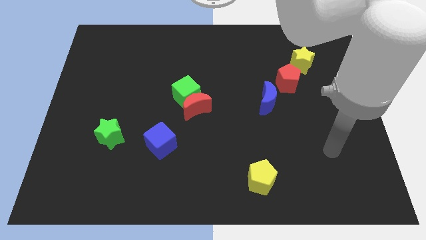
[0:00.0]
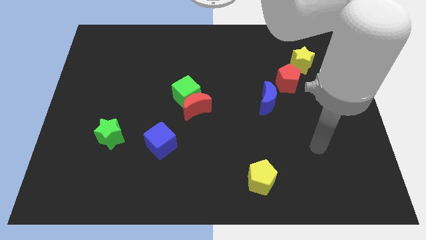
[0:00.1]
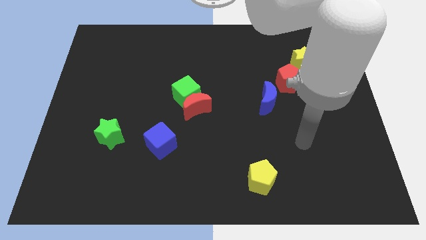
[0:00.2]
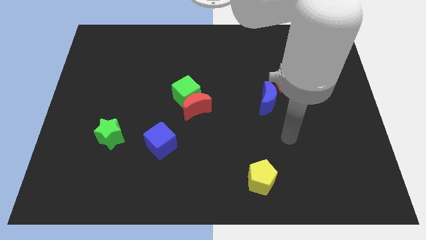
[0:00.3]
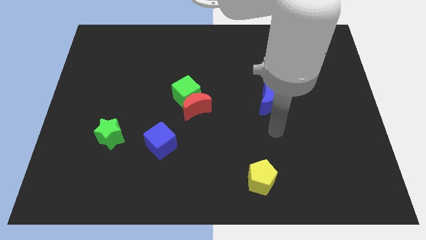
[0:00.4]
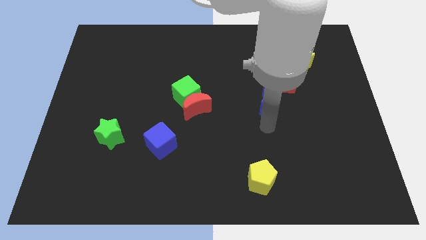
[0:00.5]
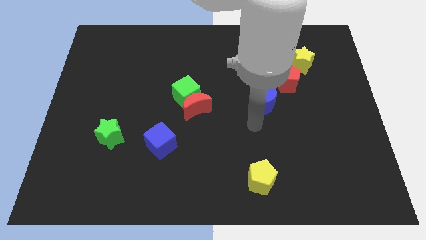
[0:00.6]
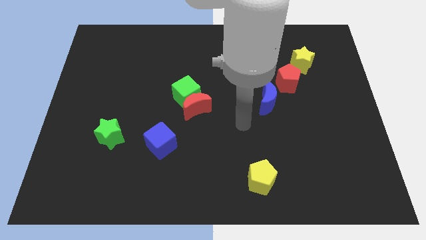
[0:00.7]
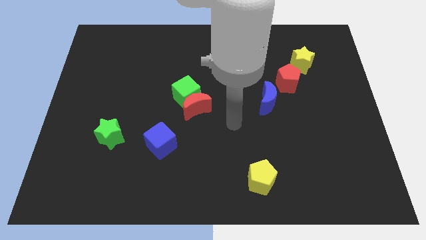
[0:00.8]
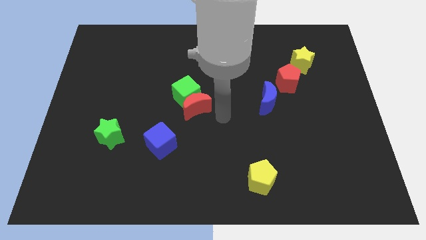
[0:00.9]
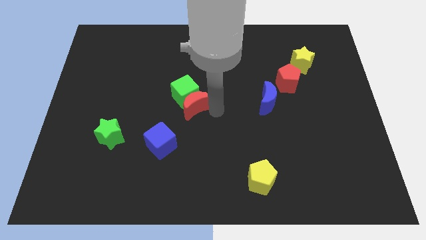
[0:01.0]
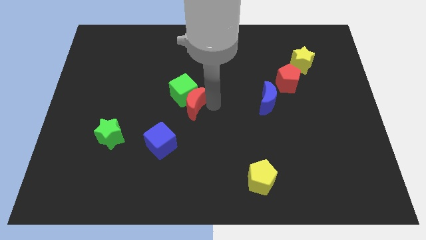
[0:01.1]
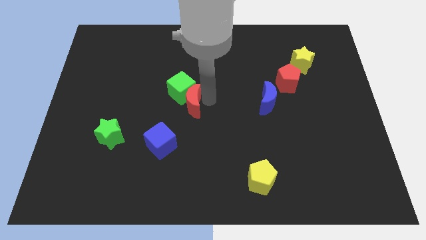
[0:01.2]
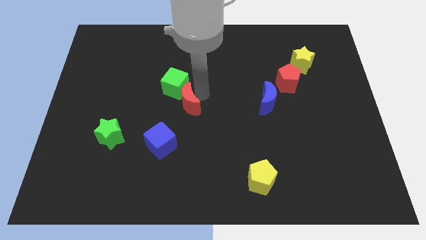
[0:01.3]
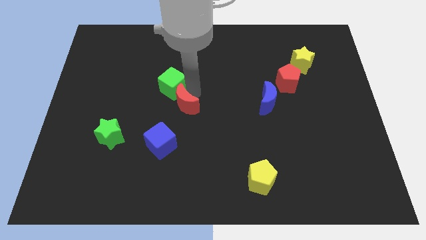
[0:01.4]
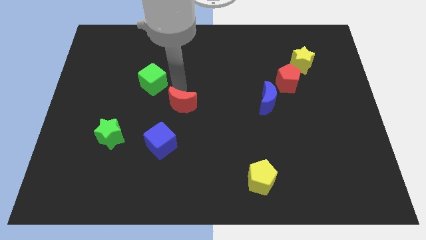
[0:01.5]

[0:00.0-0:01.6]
pull the red moon apart from the green cube

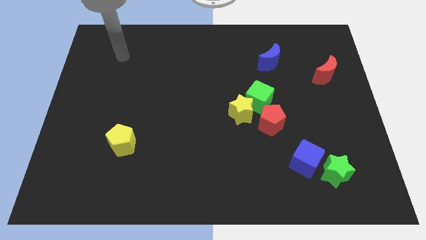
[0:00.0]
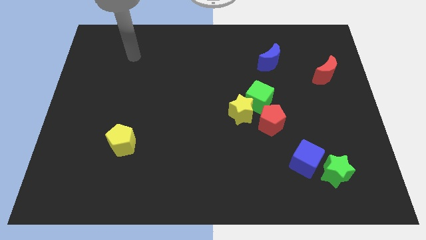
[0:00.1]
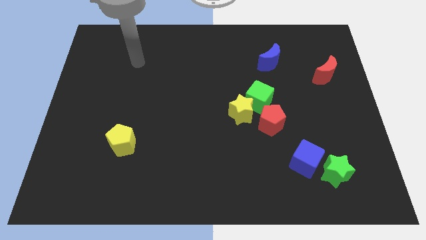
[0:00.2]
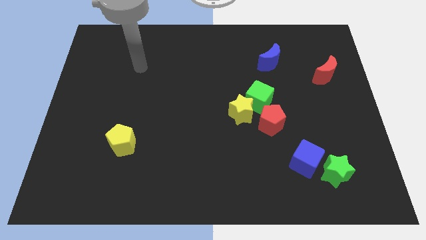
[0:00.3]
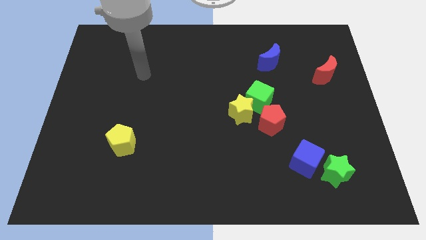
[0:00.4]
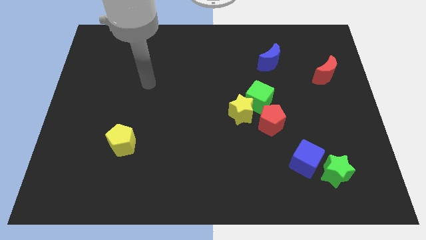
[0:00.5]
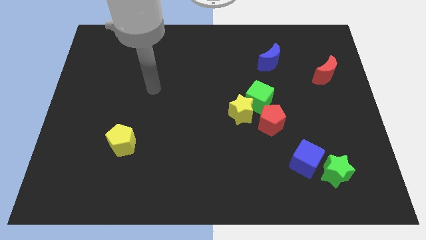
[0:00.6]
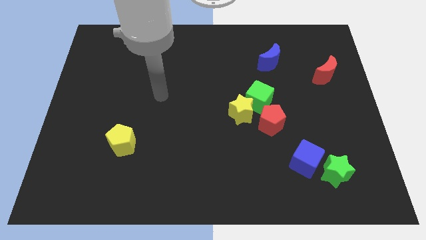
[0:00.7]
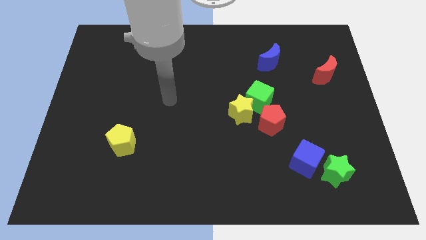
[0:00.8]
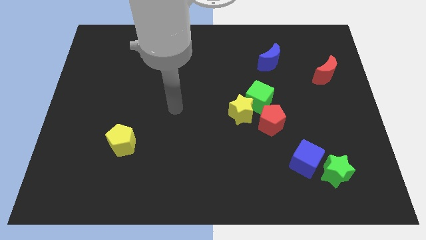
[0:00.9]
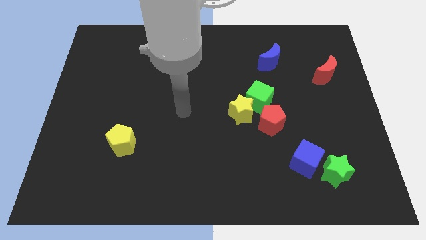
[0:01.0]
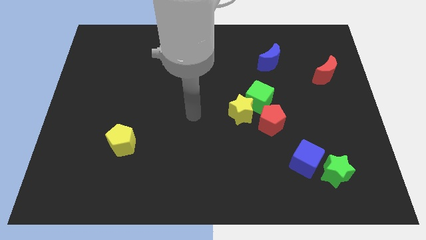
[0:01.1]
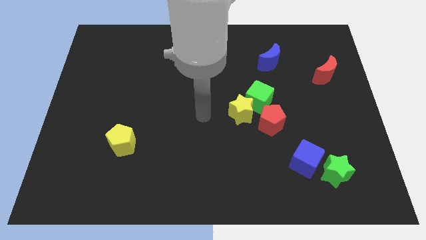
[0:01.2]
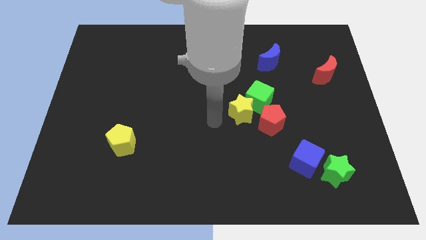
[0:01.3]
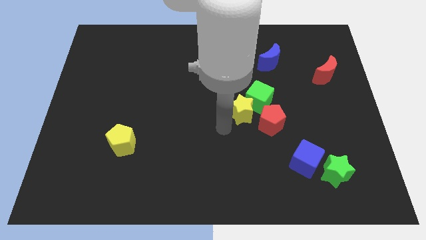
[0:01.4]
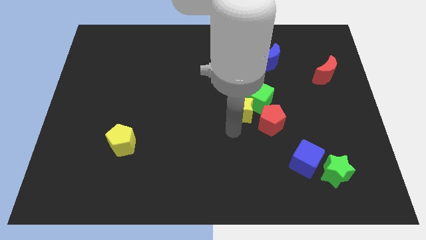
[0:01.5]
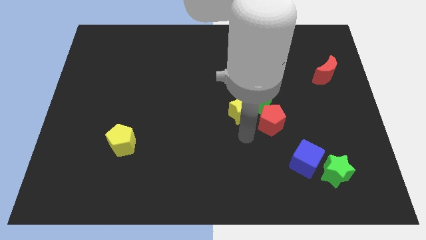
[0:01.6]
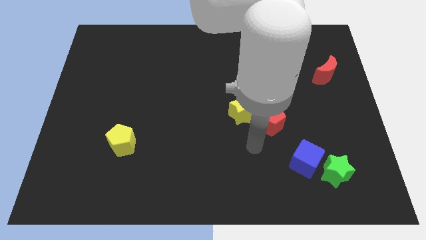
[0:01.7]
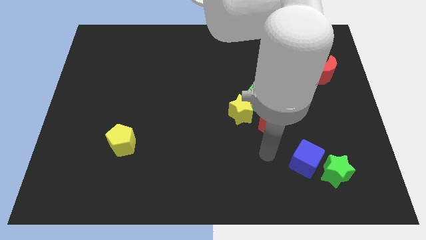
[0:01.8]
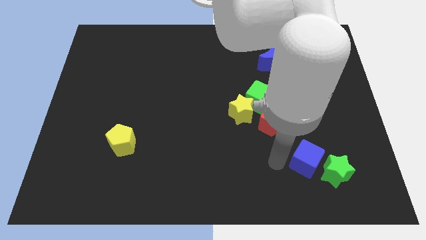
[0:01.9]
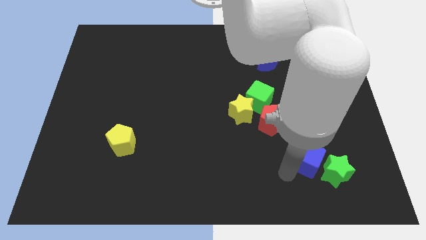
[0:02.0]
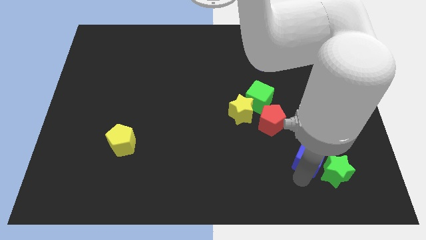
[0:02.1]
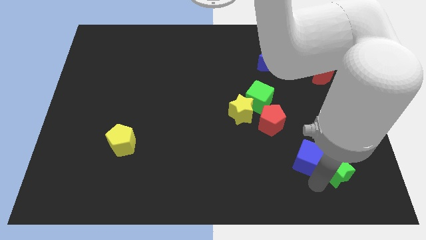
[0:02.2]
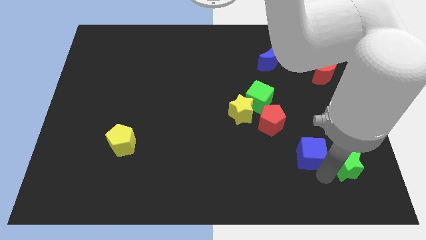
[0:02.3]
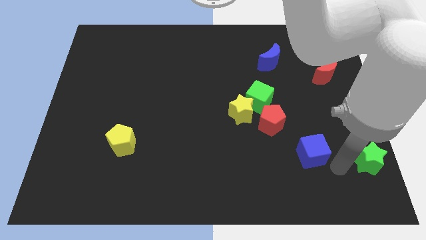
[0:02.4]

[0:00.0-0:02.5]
separate the blue cube from the green star

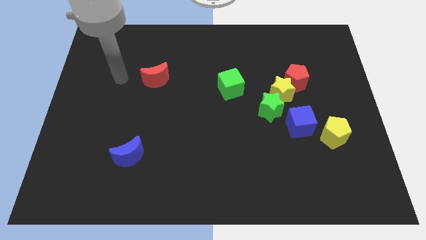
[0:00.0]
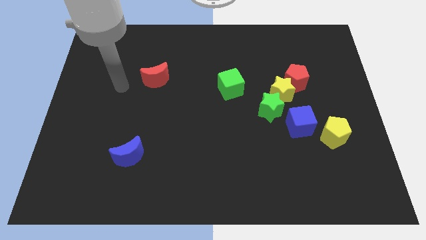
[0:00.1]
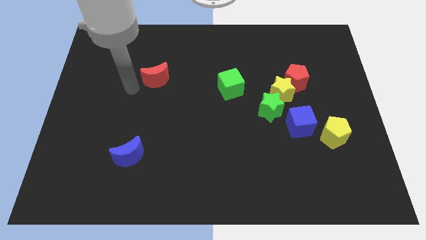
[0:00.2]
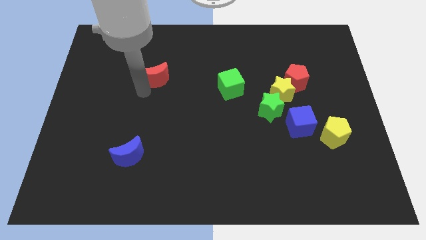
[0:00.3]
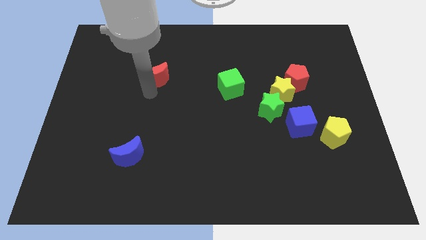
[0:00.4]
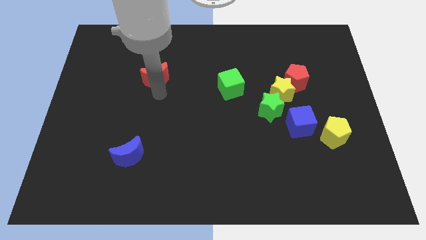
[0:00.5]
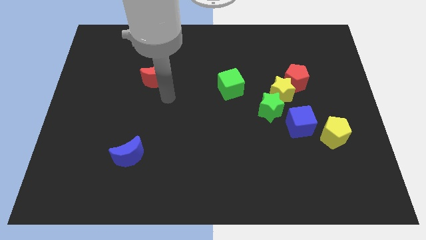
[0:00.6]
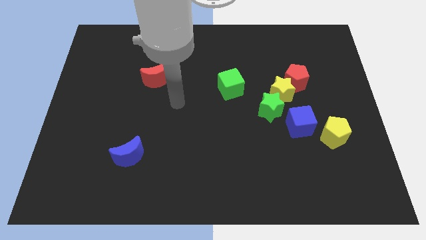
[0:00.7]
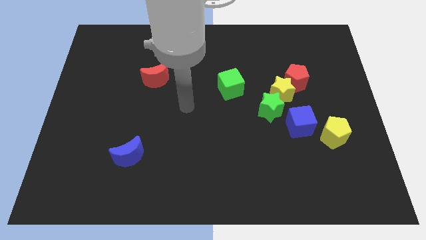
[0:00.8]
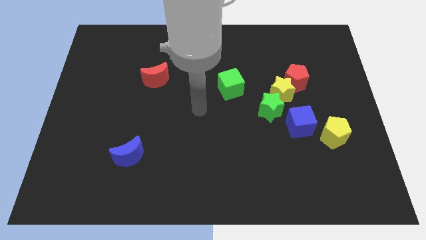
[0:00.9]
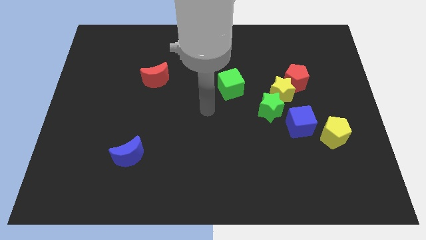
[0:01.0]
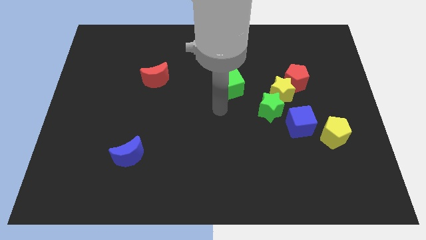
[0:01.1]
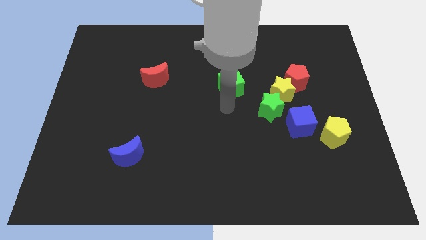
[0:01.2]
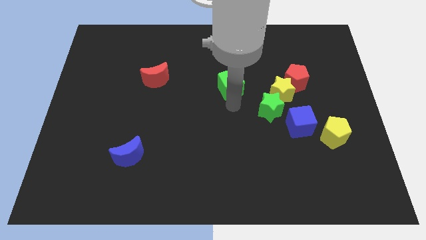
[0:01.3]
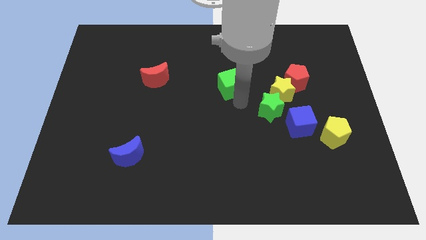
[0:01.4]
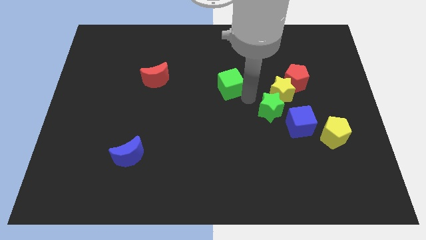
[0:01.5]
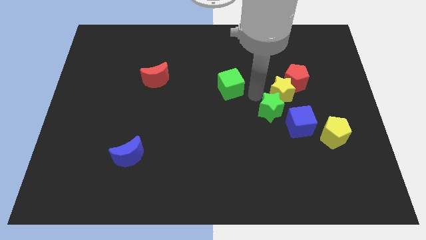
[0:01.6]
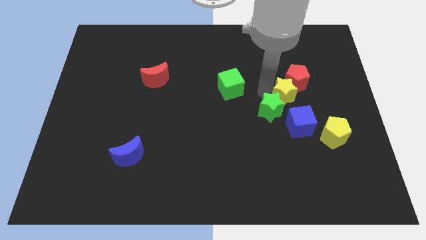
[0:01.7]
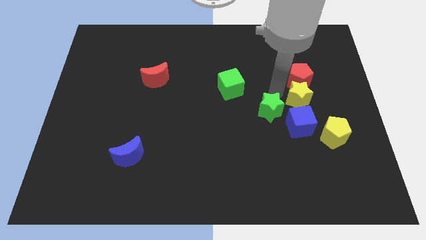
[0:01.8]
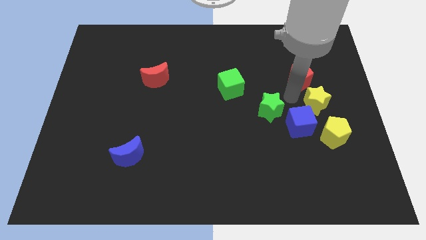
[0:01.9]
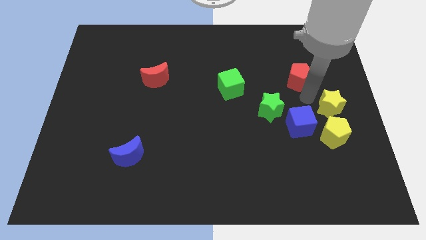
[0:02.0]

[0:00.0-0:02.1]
pull the red pentagon apart from the yellow star

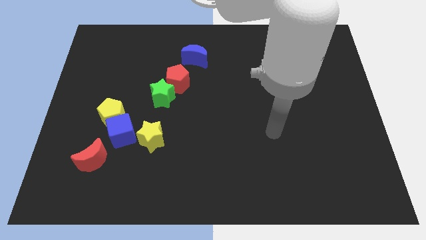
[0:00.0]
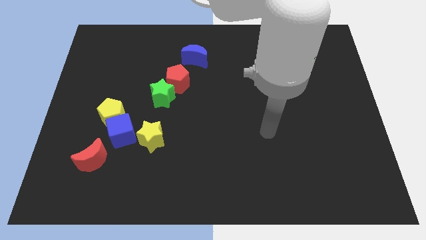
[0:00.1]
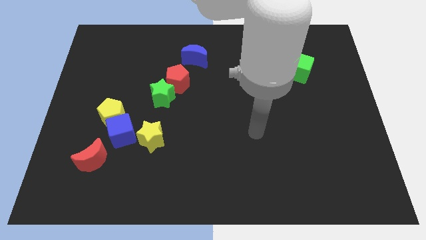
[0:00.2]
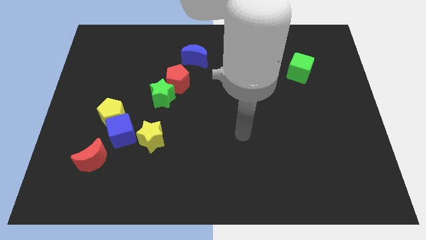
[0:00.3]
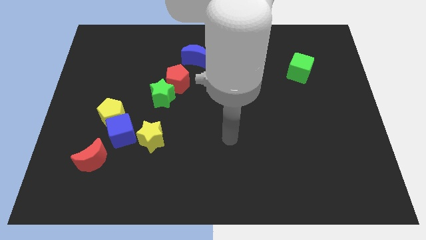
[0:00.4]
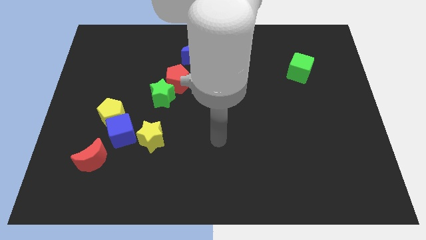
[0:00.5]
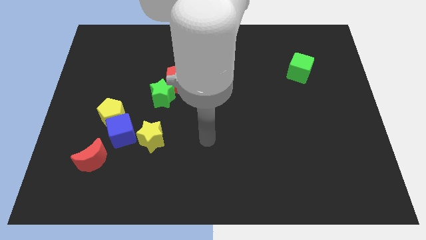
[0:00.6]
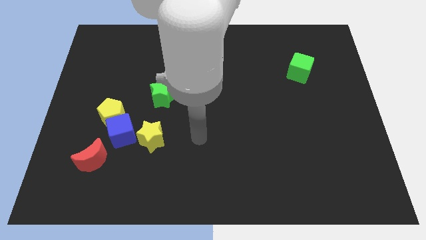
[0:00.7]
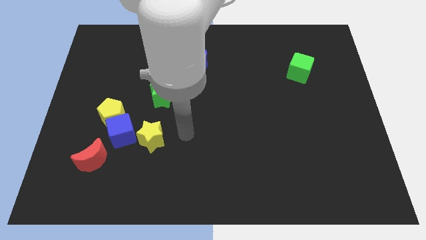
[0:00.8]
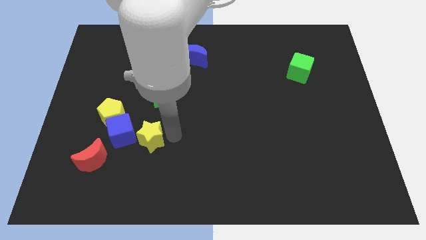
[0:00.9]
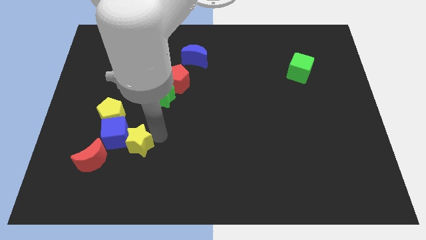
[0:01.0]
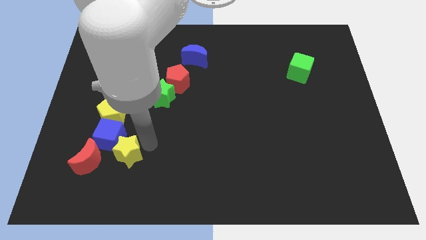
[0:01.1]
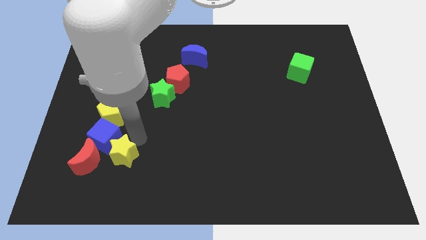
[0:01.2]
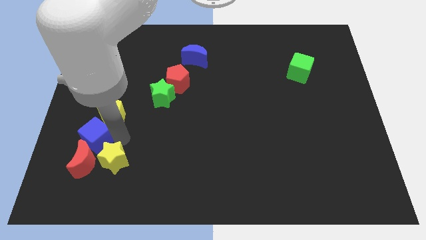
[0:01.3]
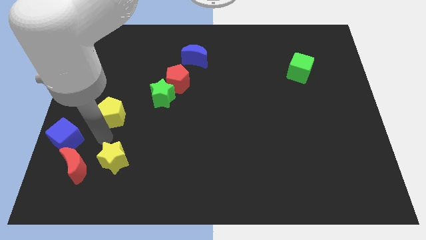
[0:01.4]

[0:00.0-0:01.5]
pull the yellow pentagon apart from the blue cube

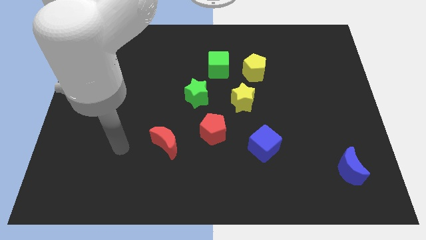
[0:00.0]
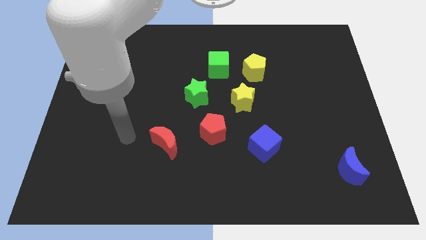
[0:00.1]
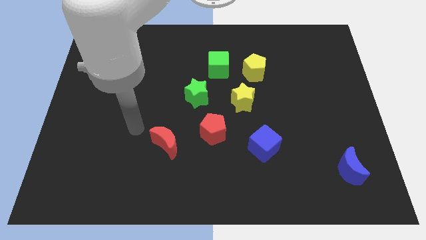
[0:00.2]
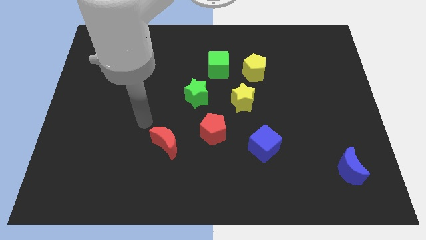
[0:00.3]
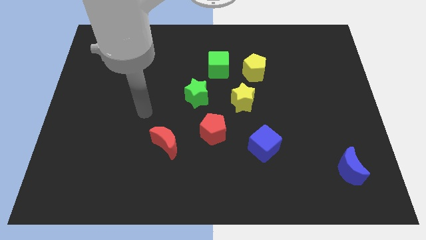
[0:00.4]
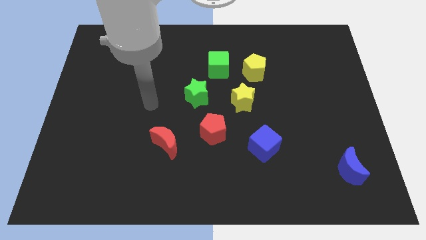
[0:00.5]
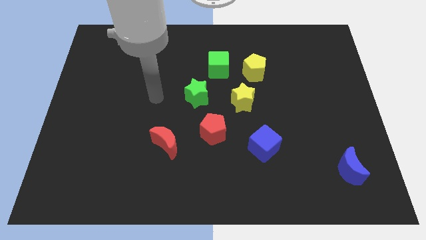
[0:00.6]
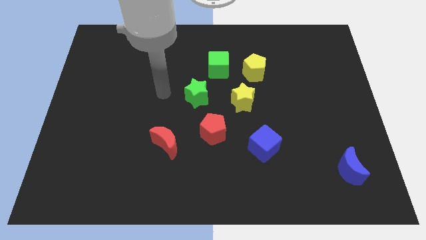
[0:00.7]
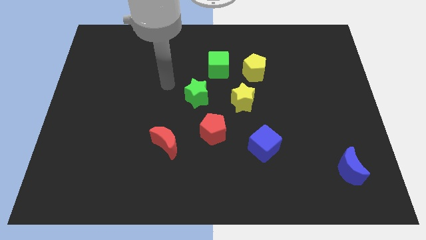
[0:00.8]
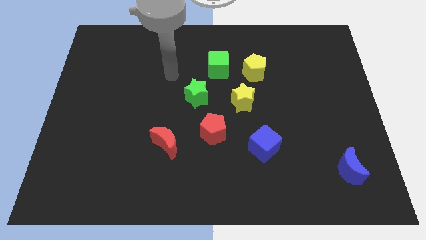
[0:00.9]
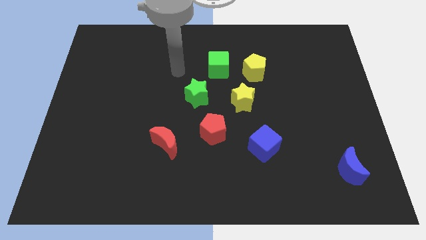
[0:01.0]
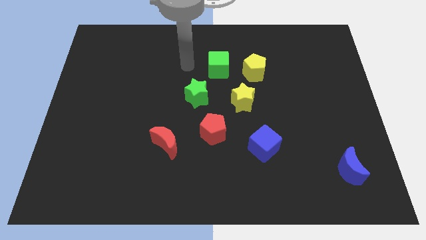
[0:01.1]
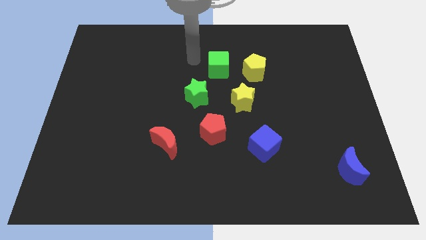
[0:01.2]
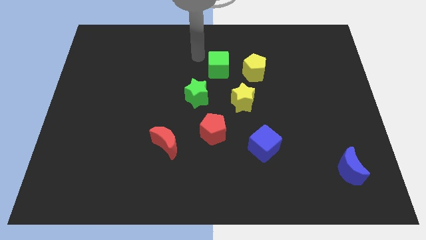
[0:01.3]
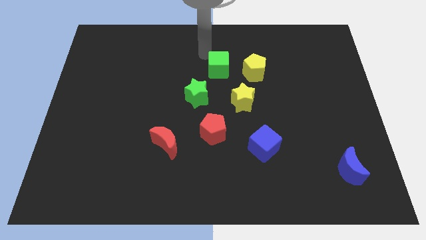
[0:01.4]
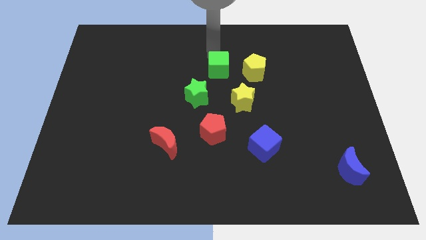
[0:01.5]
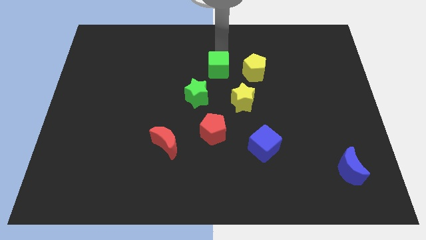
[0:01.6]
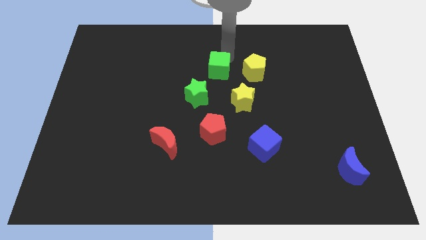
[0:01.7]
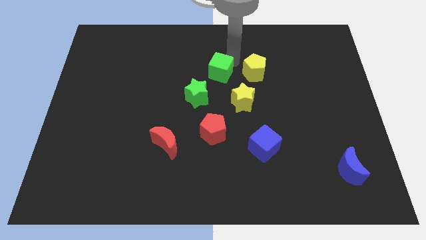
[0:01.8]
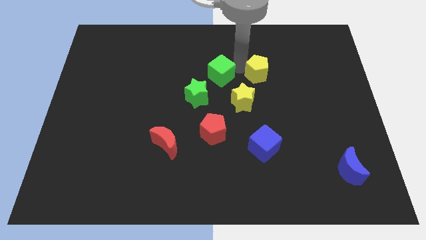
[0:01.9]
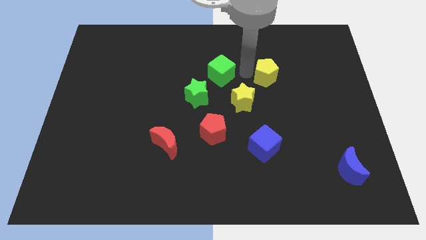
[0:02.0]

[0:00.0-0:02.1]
pull the green cube apart from the yellow pentagon
